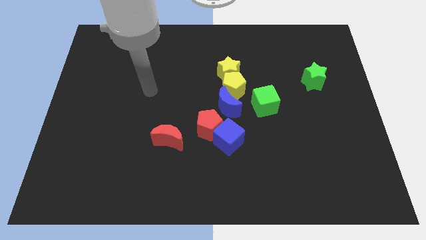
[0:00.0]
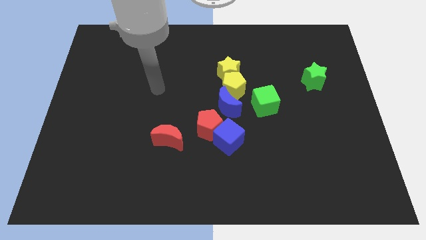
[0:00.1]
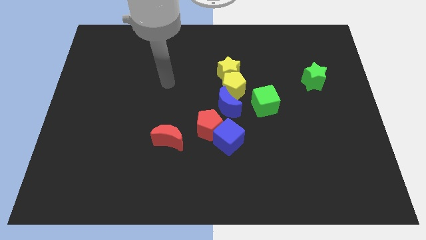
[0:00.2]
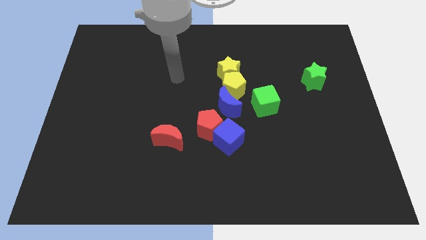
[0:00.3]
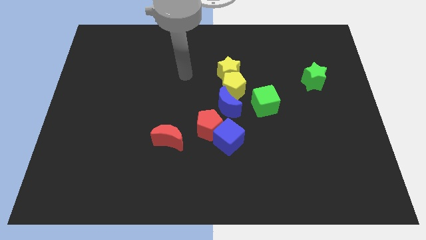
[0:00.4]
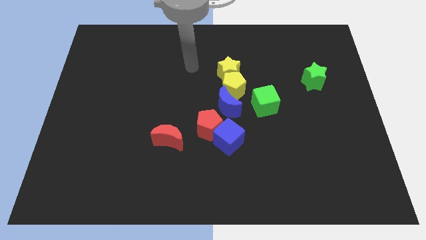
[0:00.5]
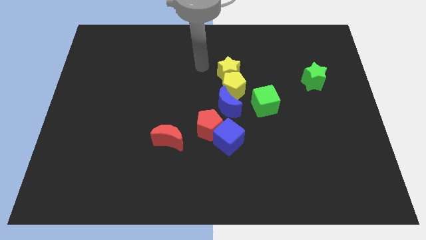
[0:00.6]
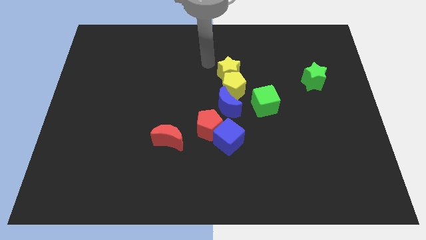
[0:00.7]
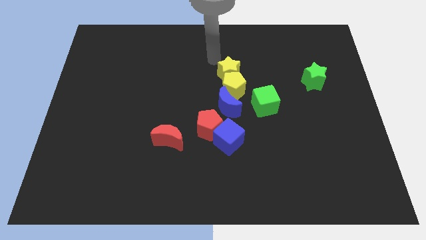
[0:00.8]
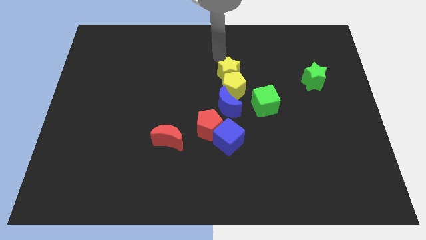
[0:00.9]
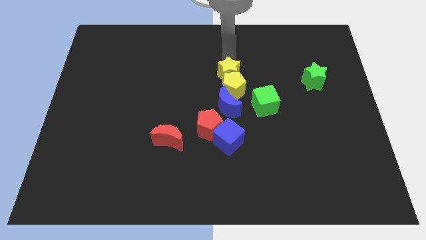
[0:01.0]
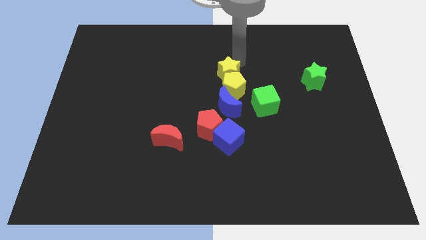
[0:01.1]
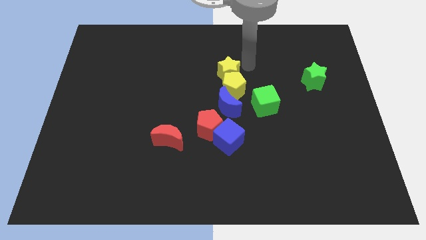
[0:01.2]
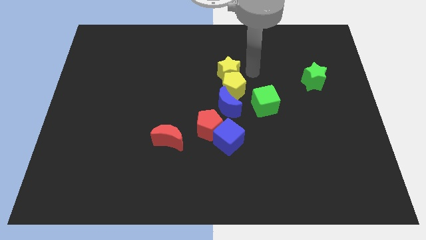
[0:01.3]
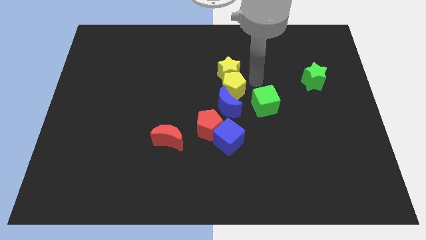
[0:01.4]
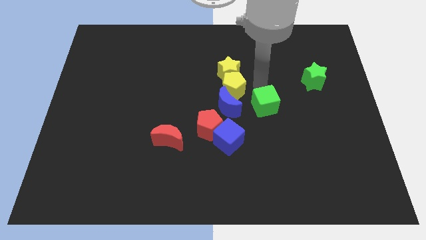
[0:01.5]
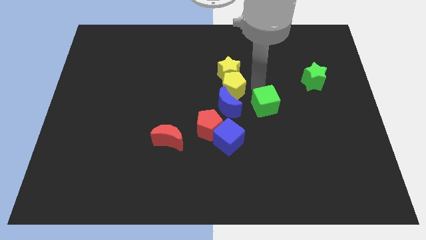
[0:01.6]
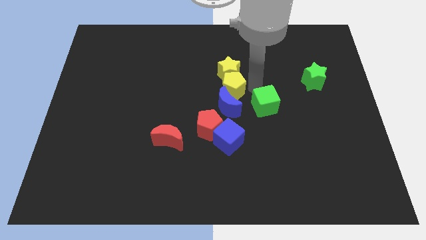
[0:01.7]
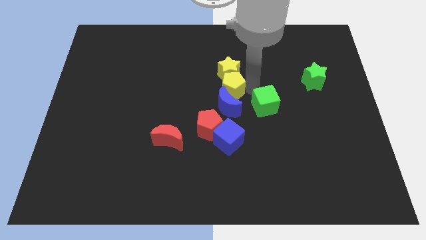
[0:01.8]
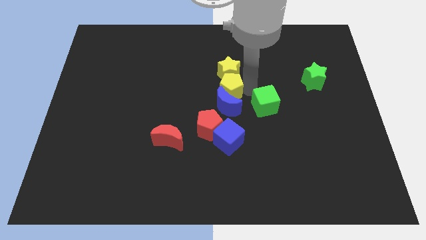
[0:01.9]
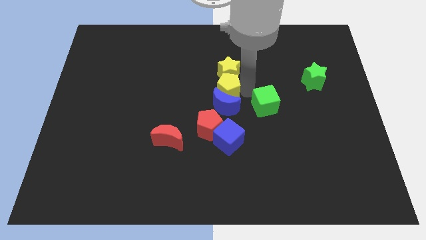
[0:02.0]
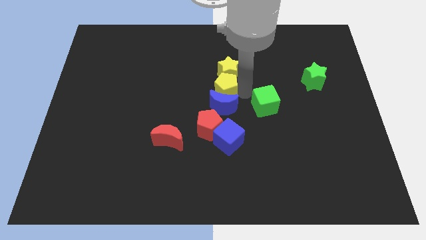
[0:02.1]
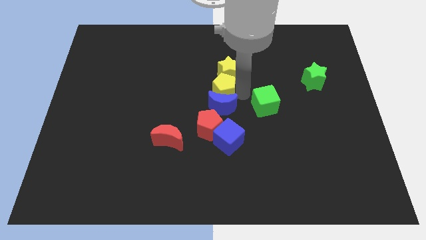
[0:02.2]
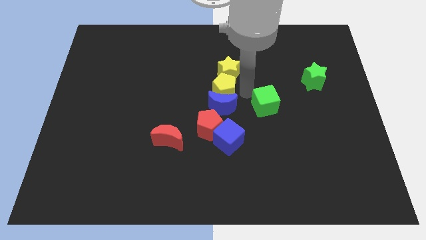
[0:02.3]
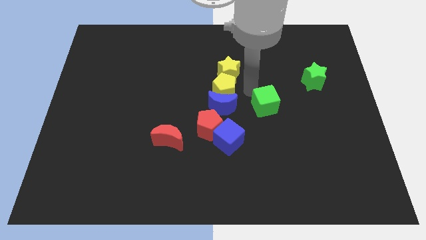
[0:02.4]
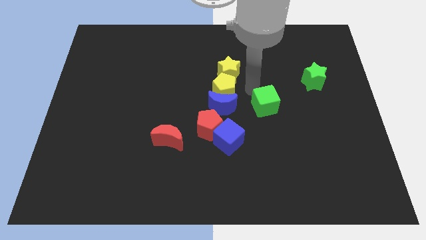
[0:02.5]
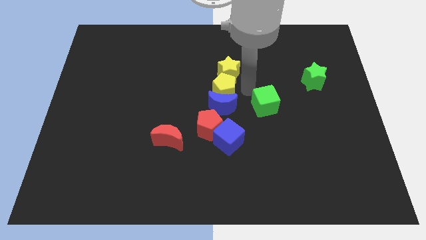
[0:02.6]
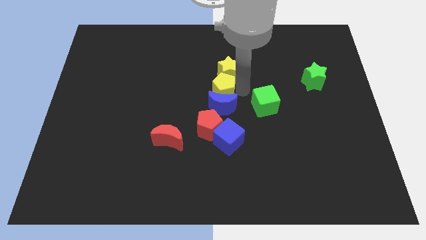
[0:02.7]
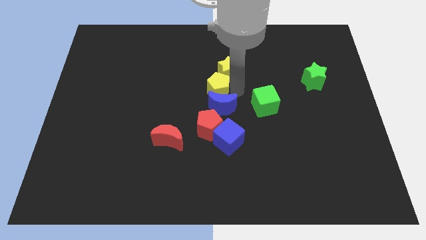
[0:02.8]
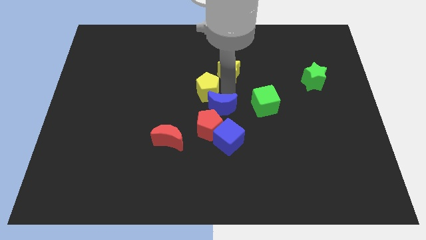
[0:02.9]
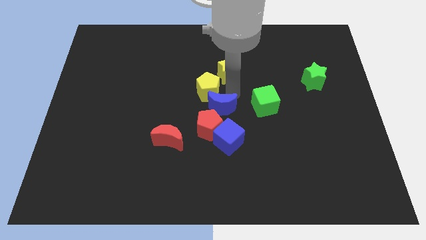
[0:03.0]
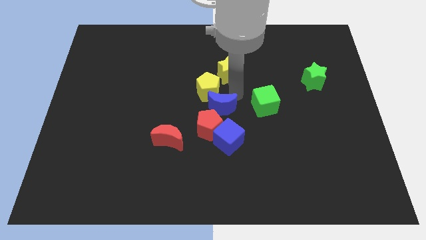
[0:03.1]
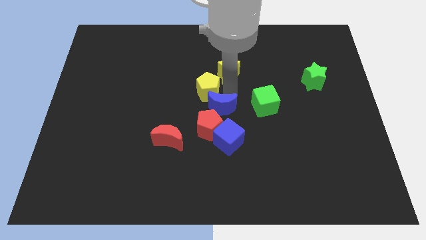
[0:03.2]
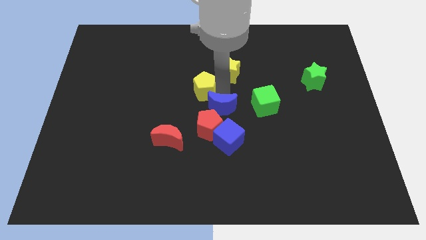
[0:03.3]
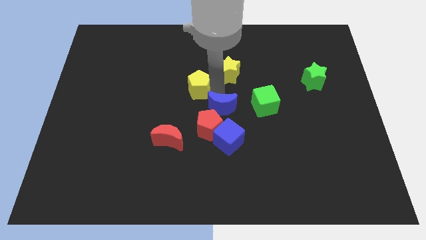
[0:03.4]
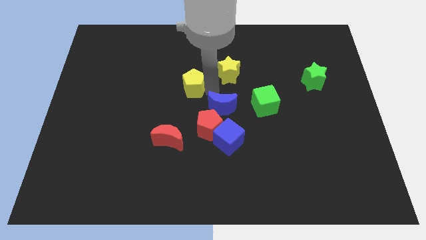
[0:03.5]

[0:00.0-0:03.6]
move the yellow pentagon away from the group

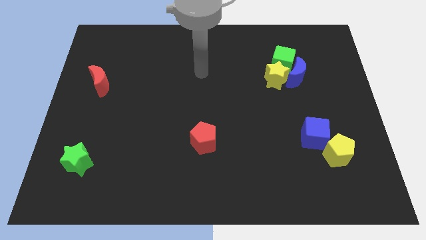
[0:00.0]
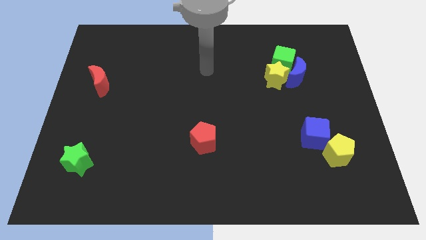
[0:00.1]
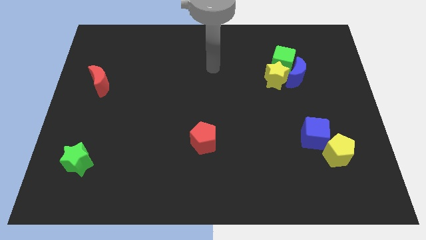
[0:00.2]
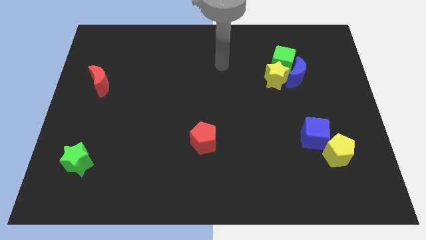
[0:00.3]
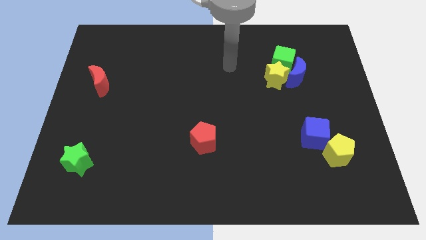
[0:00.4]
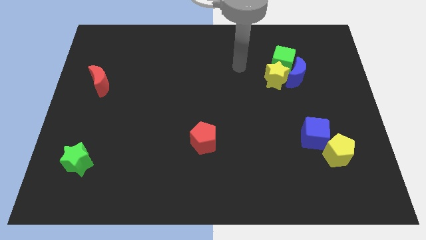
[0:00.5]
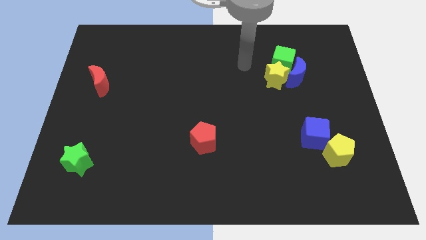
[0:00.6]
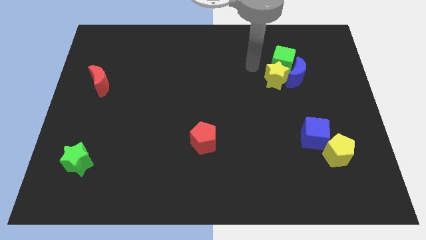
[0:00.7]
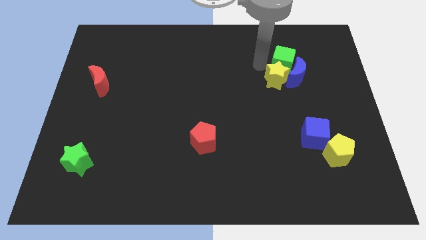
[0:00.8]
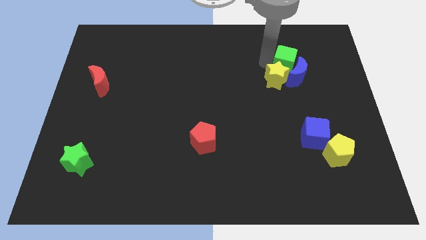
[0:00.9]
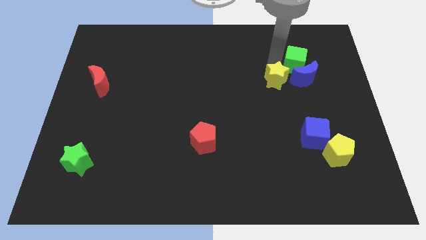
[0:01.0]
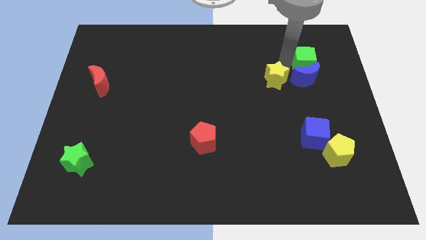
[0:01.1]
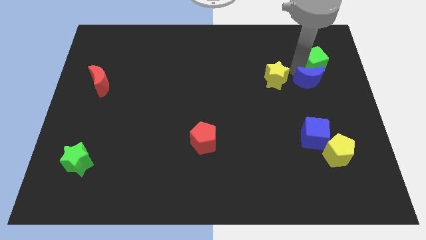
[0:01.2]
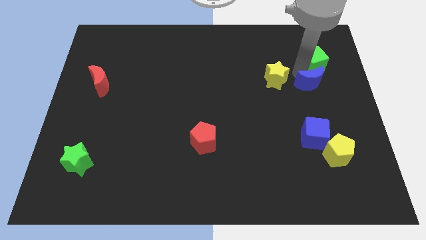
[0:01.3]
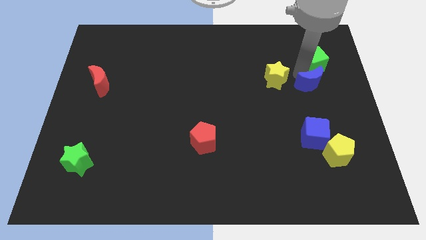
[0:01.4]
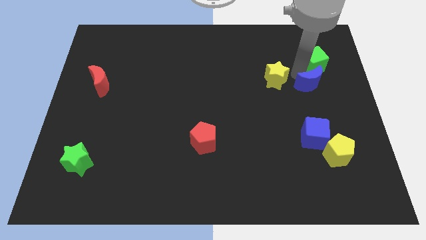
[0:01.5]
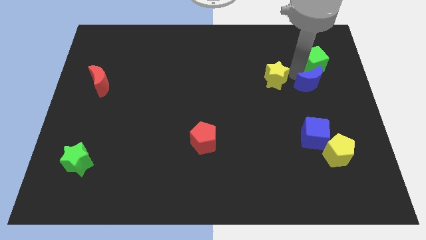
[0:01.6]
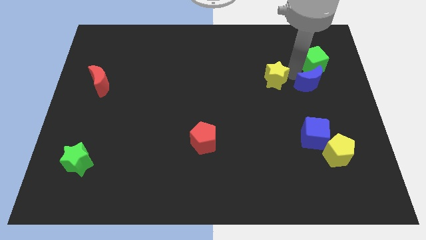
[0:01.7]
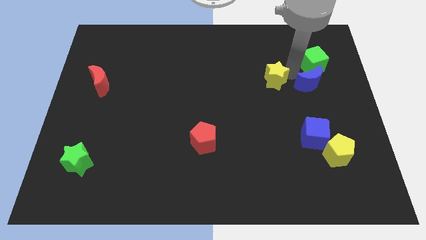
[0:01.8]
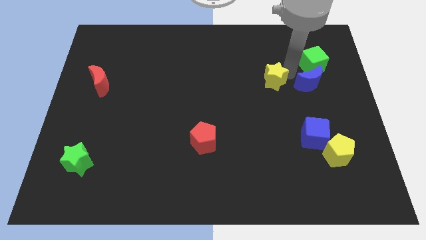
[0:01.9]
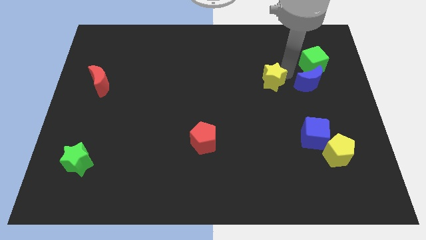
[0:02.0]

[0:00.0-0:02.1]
pull the yellow star apart from the blue moon and green cube

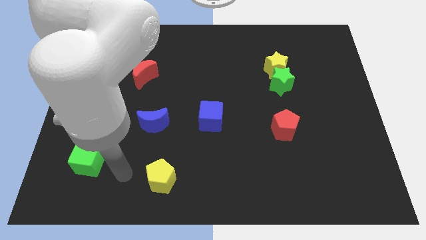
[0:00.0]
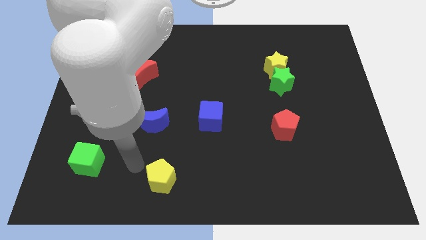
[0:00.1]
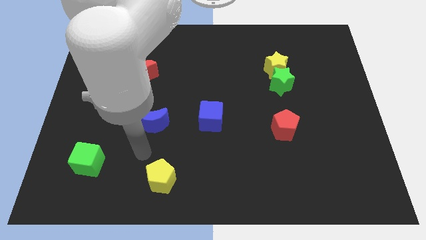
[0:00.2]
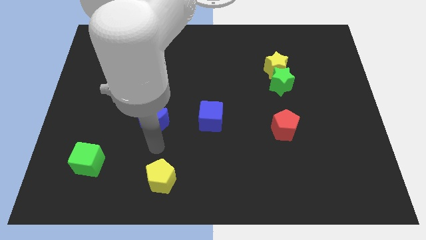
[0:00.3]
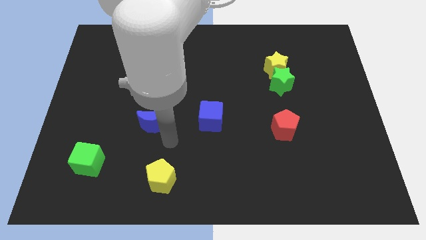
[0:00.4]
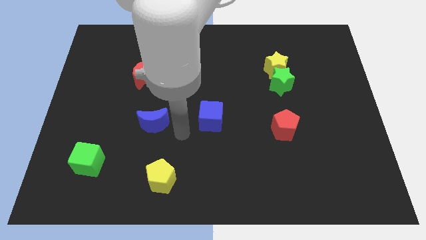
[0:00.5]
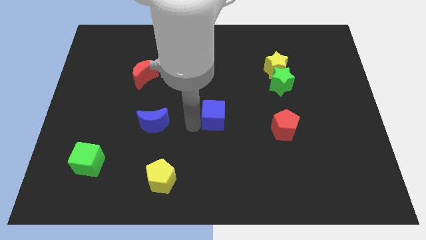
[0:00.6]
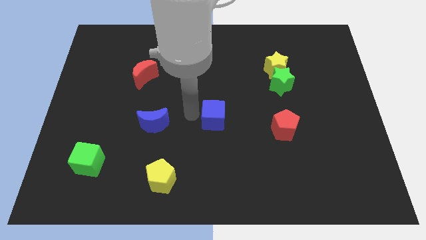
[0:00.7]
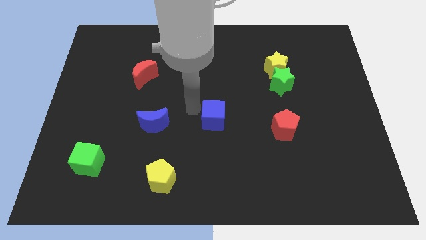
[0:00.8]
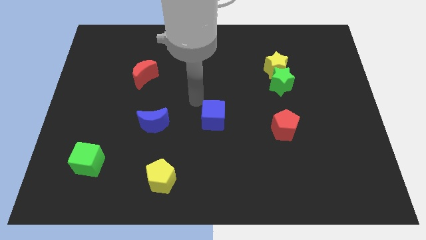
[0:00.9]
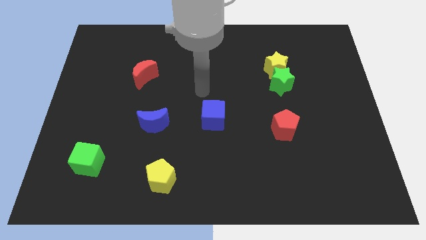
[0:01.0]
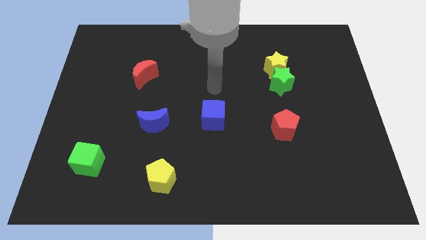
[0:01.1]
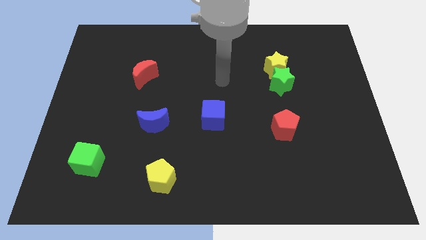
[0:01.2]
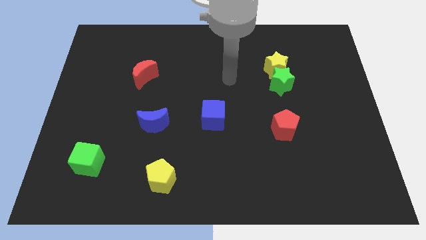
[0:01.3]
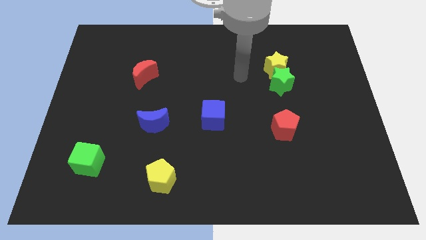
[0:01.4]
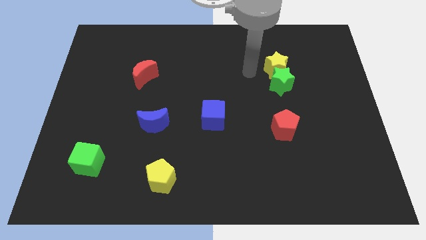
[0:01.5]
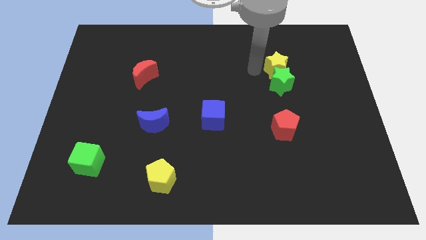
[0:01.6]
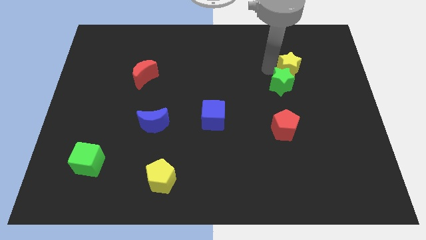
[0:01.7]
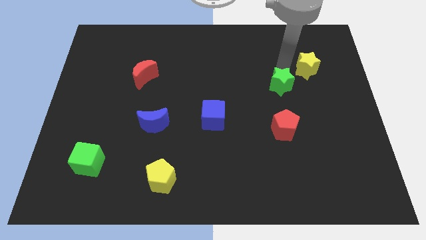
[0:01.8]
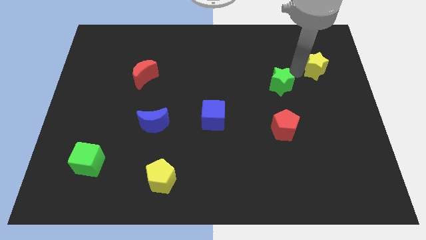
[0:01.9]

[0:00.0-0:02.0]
separate the green star from the yellow star

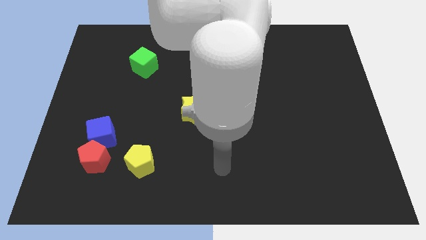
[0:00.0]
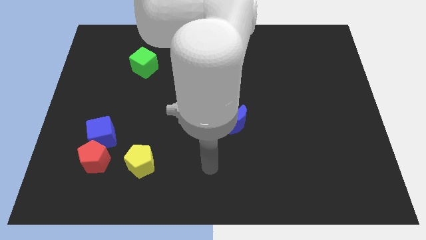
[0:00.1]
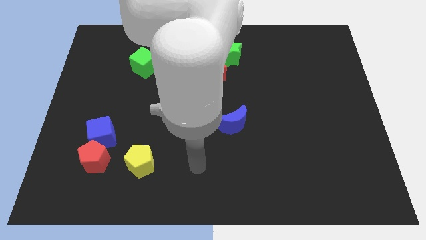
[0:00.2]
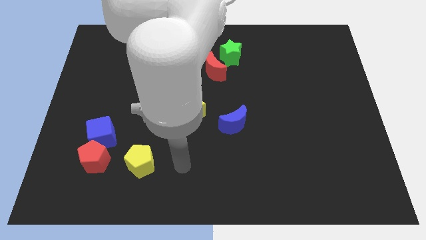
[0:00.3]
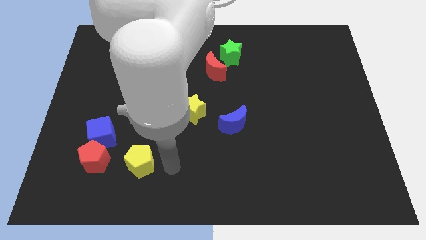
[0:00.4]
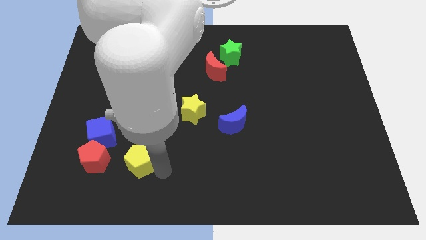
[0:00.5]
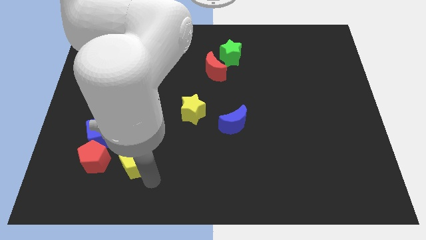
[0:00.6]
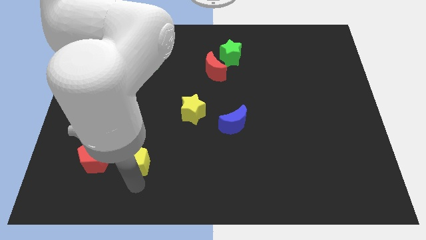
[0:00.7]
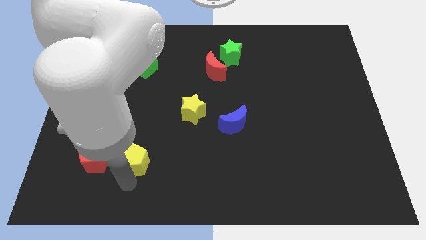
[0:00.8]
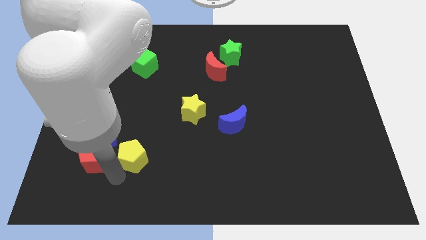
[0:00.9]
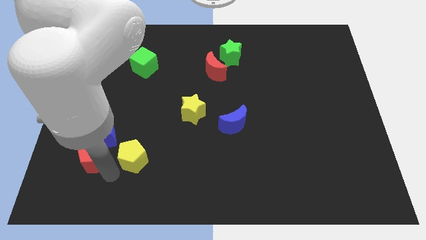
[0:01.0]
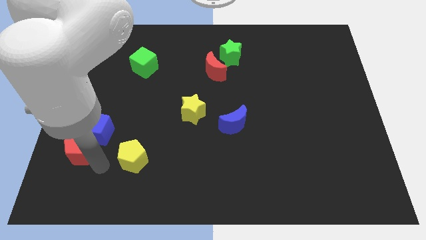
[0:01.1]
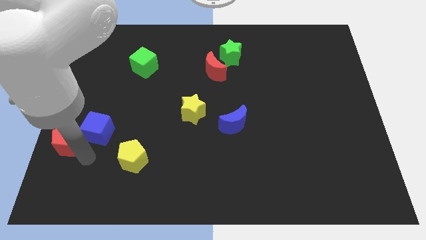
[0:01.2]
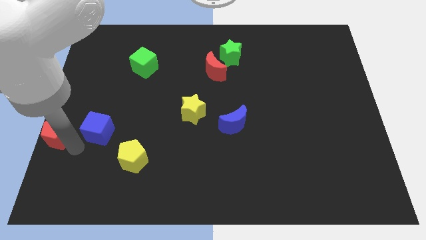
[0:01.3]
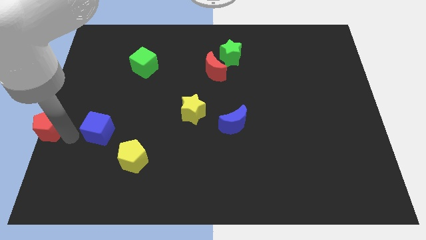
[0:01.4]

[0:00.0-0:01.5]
pull the blue cube apart from the red pentagon
